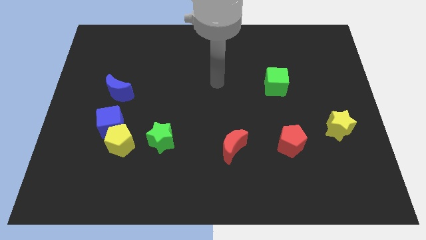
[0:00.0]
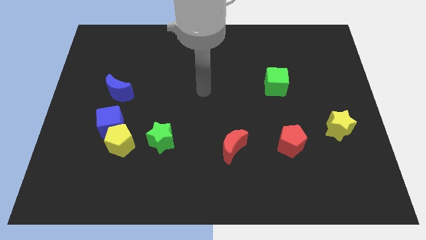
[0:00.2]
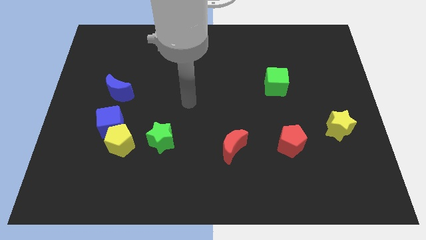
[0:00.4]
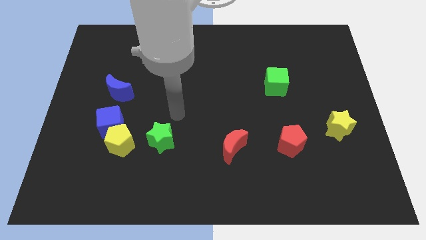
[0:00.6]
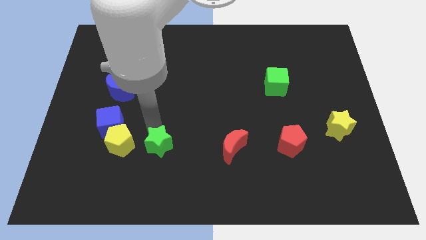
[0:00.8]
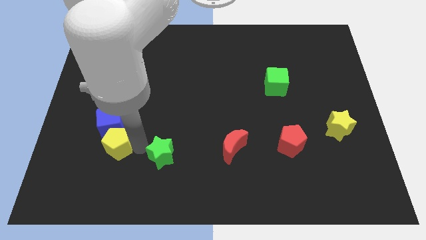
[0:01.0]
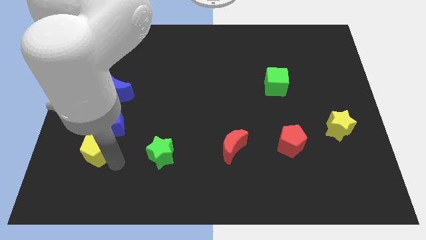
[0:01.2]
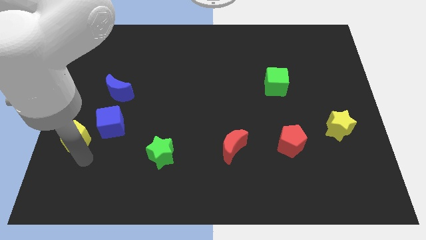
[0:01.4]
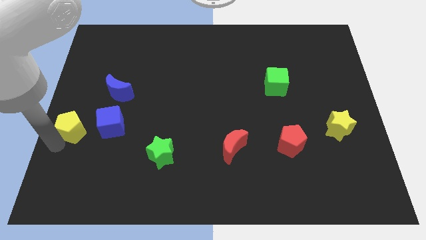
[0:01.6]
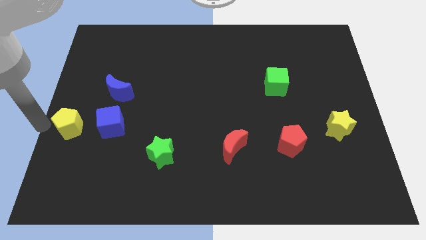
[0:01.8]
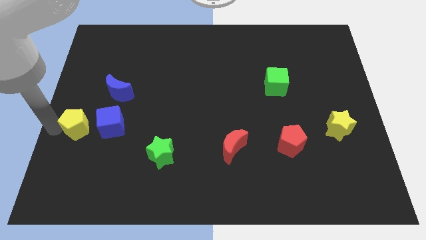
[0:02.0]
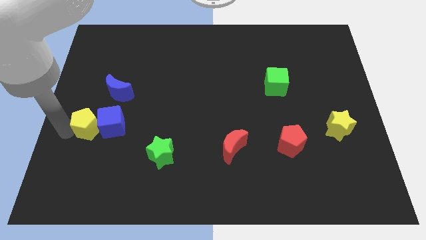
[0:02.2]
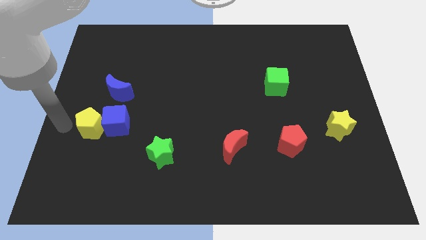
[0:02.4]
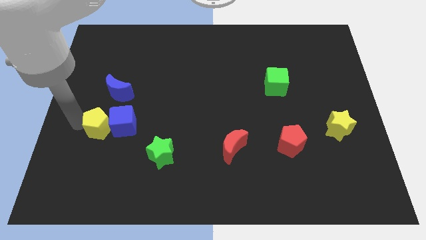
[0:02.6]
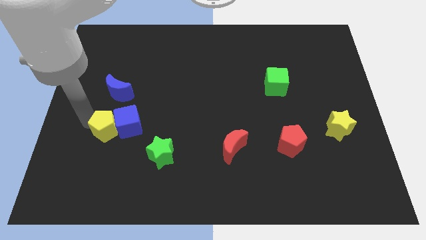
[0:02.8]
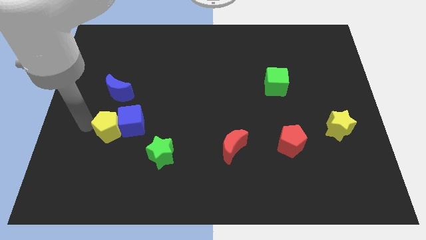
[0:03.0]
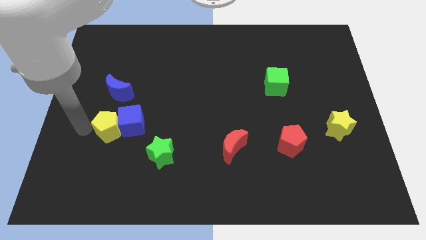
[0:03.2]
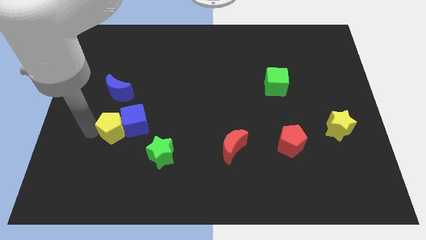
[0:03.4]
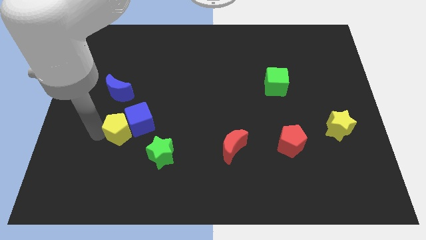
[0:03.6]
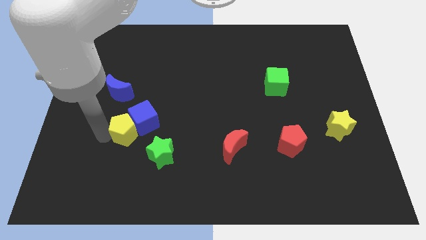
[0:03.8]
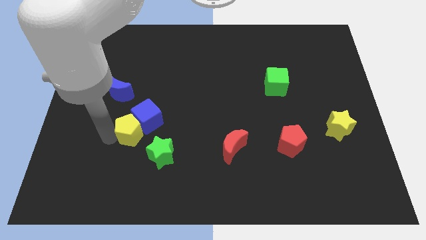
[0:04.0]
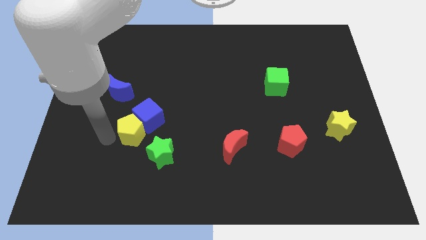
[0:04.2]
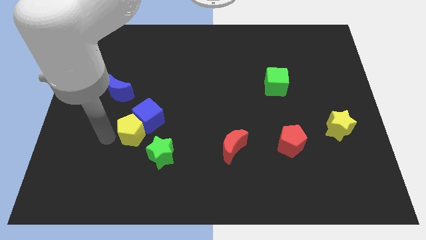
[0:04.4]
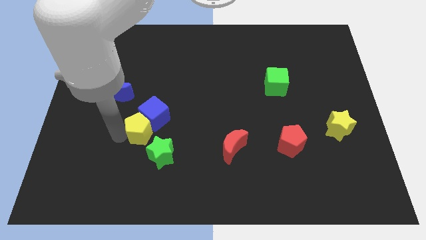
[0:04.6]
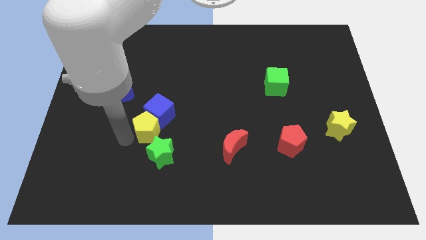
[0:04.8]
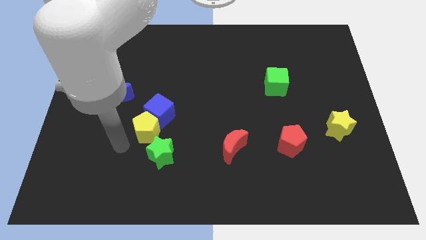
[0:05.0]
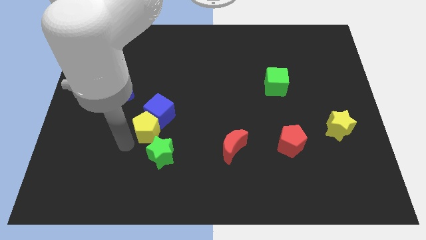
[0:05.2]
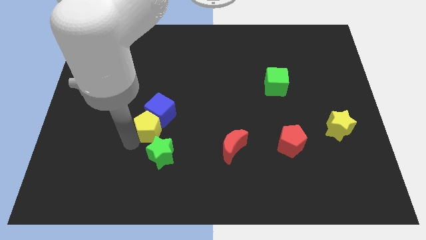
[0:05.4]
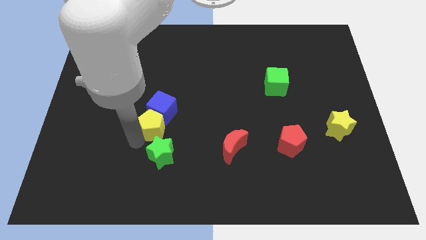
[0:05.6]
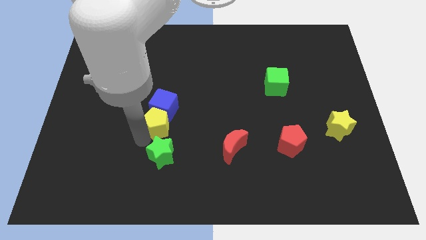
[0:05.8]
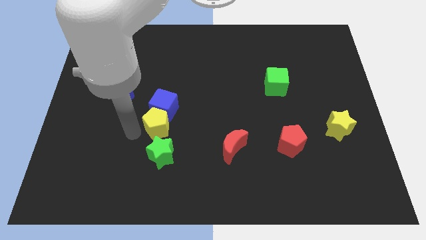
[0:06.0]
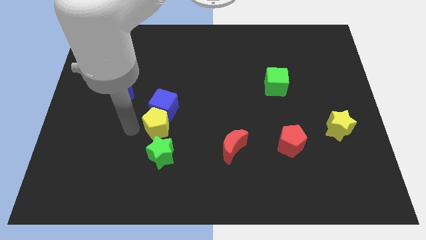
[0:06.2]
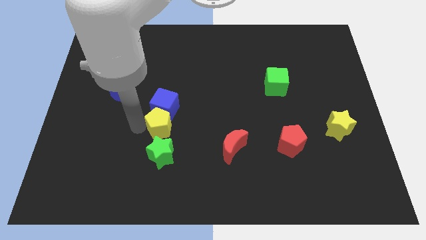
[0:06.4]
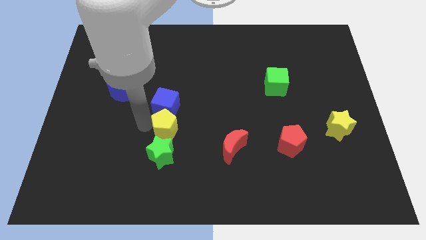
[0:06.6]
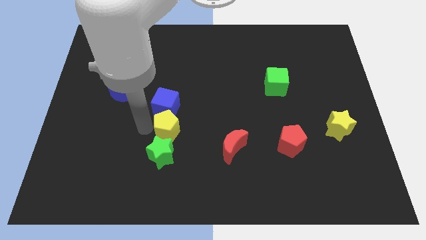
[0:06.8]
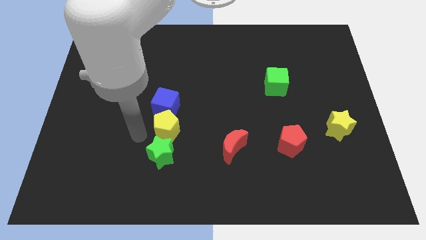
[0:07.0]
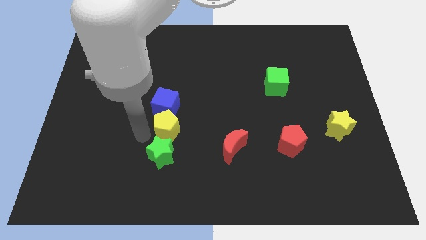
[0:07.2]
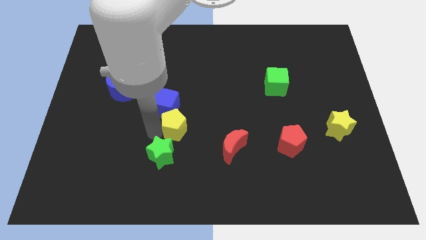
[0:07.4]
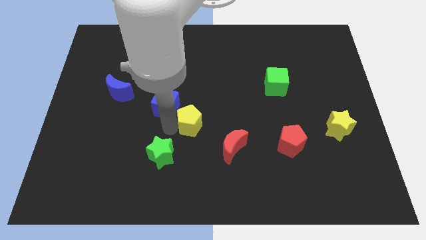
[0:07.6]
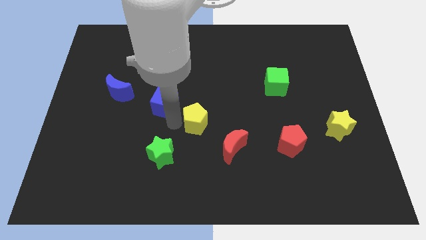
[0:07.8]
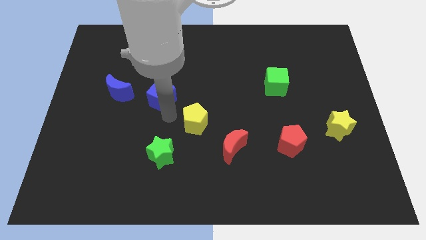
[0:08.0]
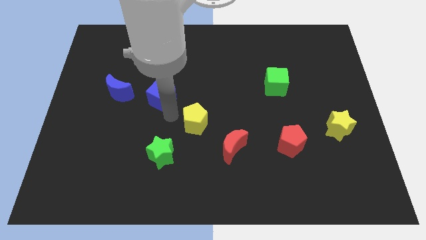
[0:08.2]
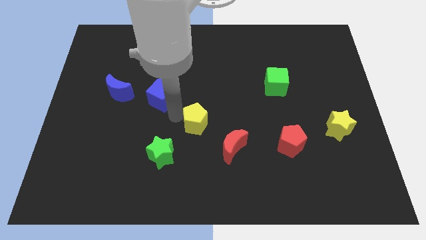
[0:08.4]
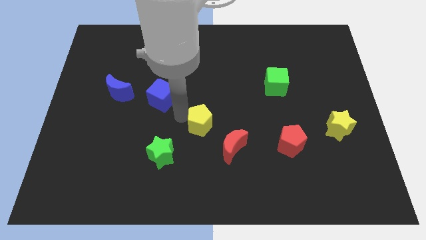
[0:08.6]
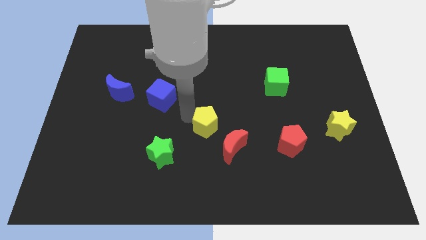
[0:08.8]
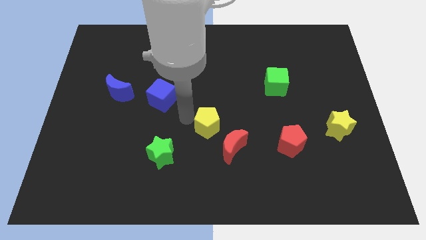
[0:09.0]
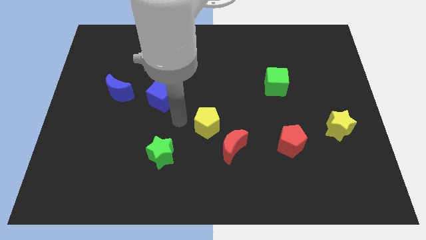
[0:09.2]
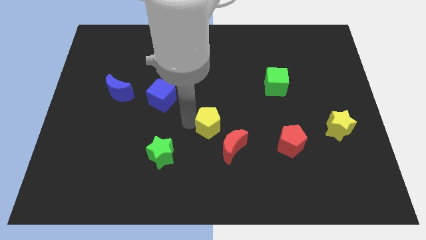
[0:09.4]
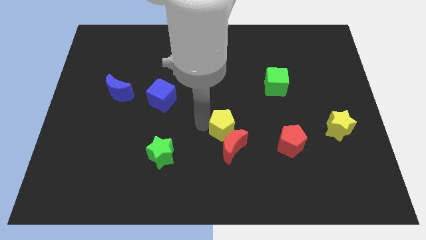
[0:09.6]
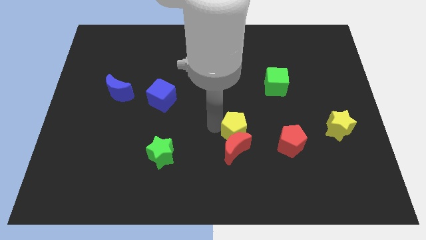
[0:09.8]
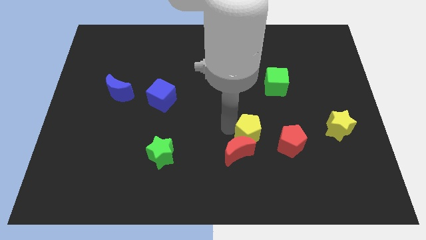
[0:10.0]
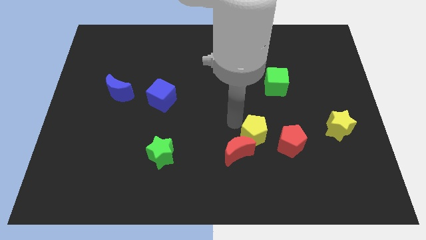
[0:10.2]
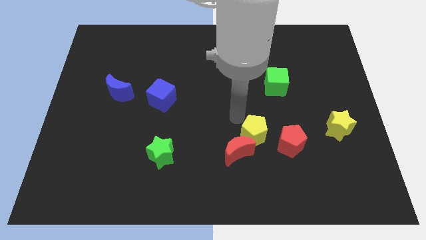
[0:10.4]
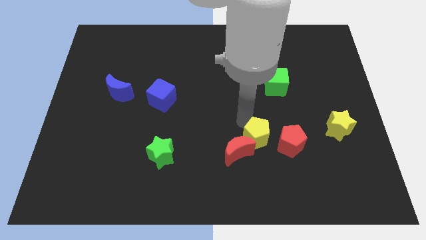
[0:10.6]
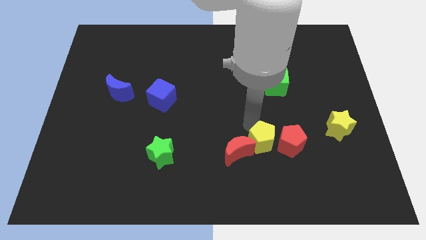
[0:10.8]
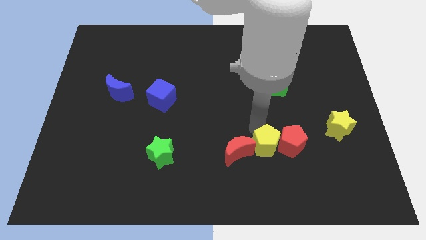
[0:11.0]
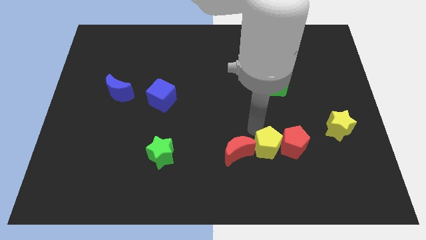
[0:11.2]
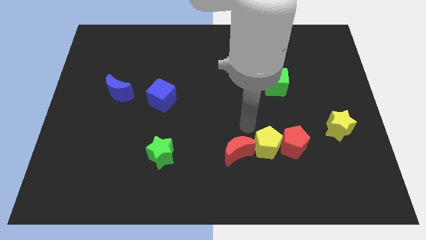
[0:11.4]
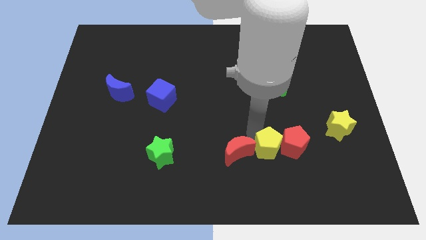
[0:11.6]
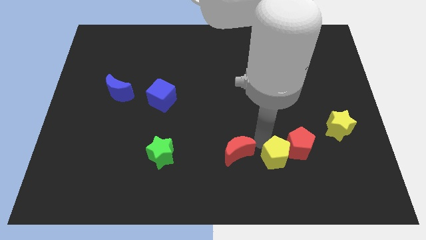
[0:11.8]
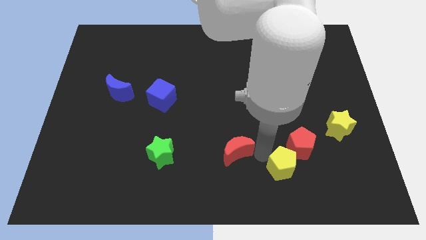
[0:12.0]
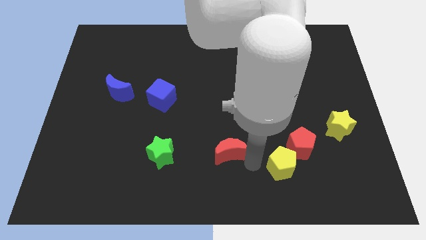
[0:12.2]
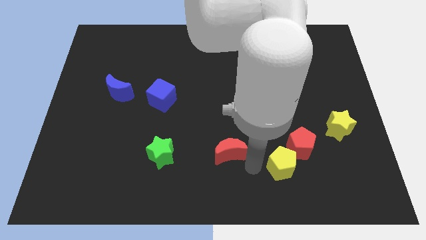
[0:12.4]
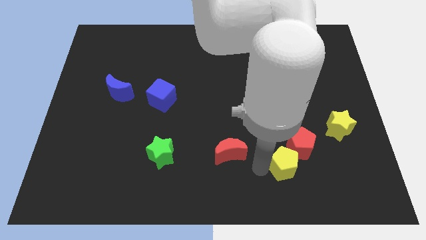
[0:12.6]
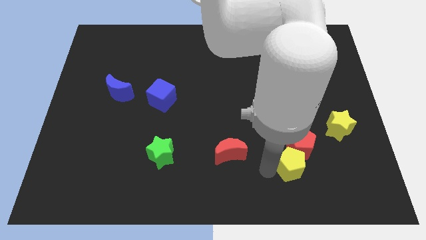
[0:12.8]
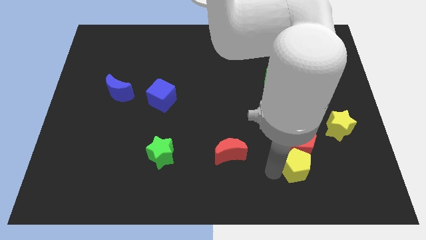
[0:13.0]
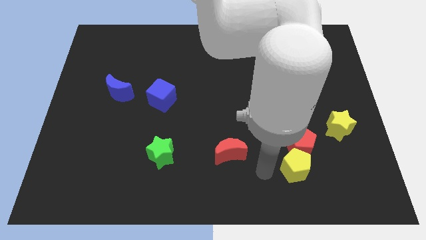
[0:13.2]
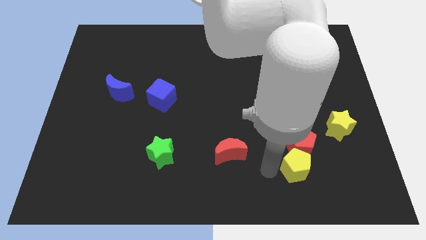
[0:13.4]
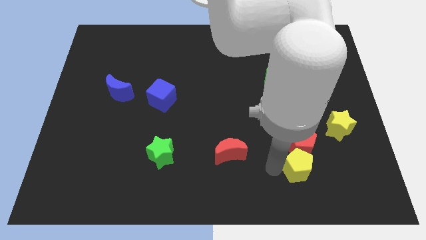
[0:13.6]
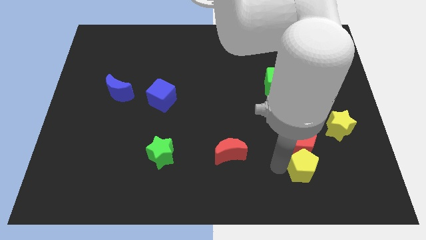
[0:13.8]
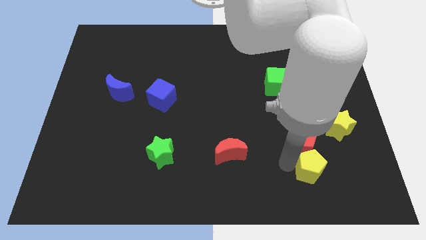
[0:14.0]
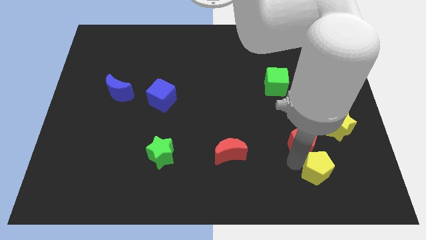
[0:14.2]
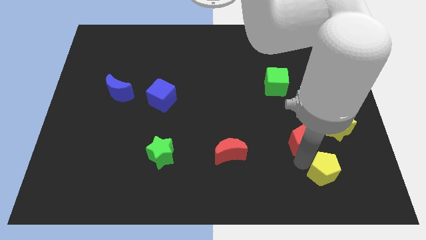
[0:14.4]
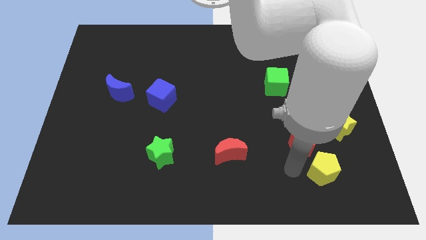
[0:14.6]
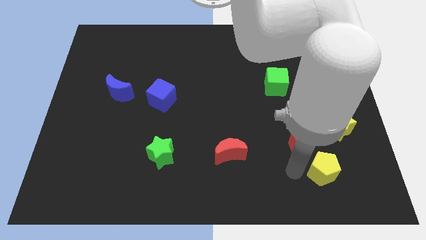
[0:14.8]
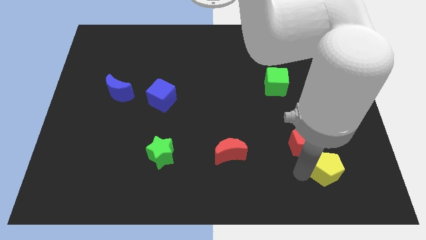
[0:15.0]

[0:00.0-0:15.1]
put the yellow pentagon to the bottom of the yellow star
